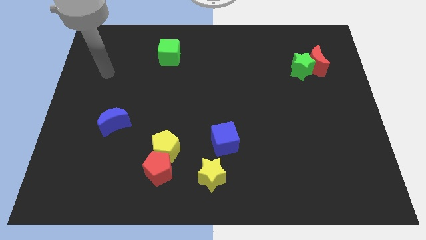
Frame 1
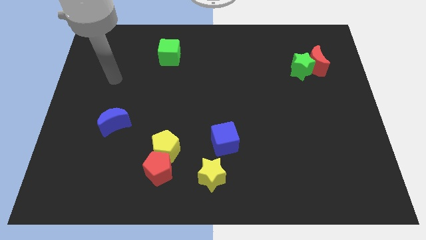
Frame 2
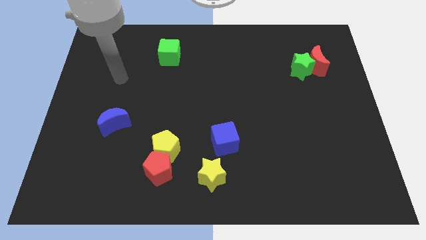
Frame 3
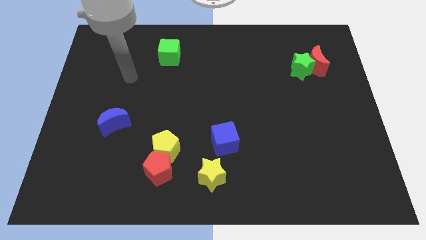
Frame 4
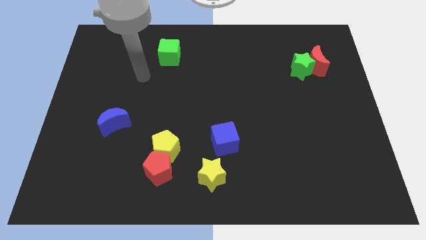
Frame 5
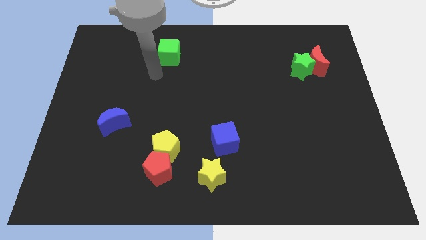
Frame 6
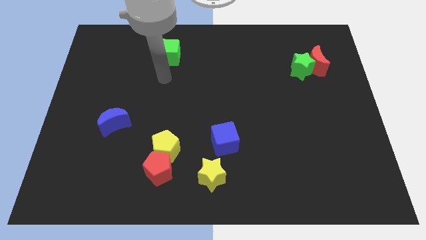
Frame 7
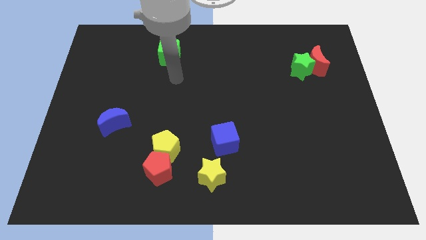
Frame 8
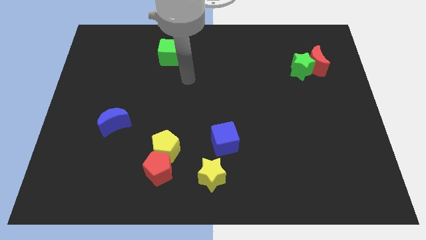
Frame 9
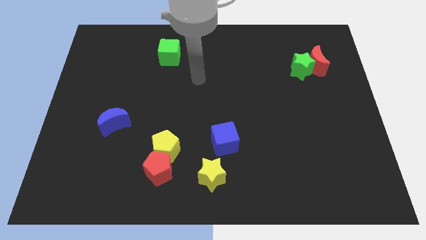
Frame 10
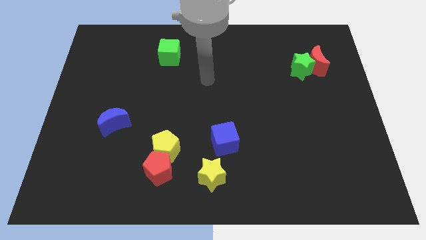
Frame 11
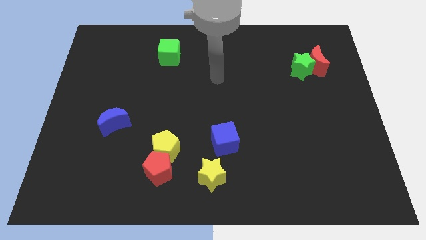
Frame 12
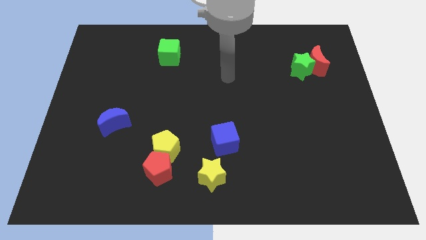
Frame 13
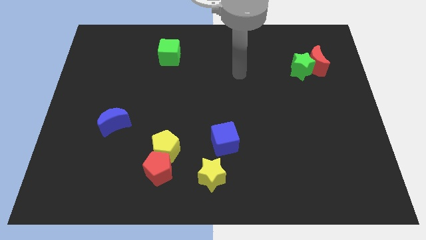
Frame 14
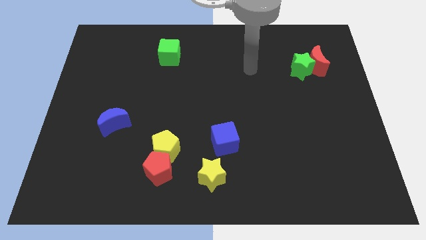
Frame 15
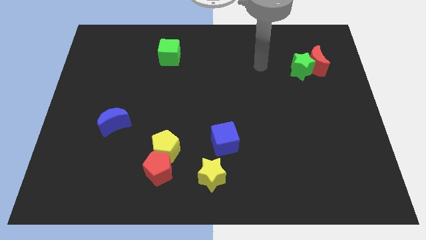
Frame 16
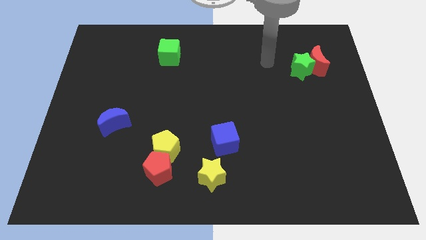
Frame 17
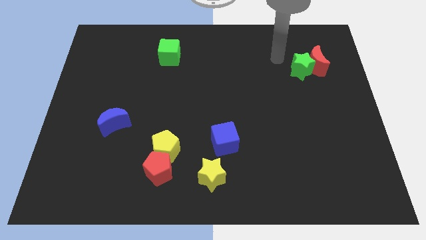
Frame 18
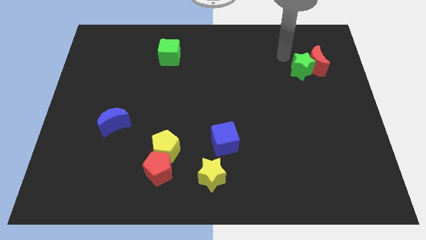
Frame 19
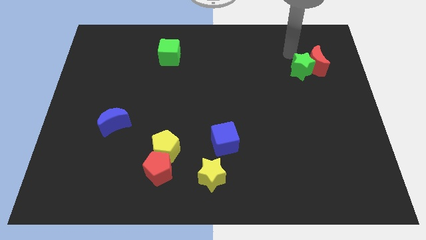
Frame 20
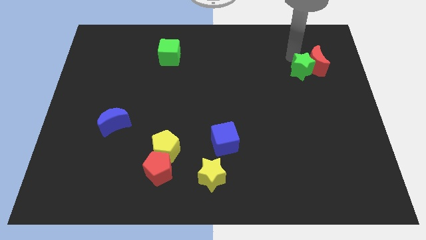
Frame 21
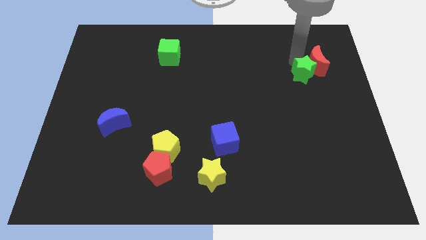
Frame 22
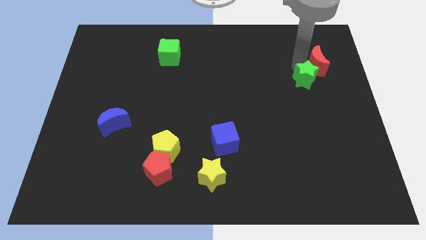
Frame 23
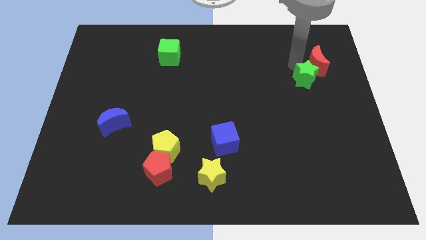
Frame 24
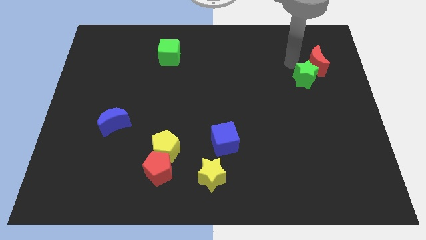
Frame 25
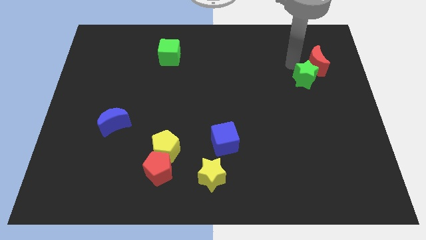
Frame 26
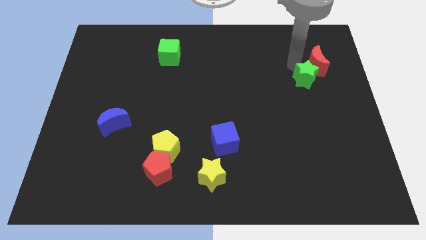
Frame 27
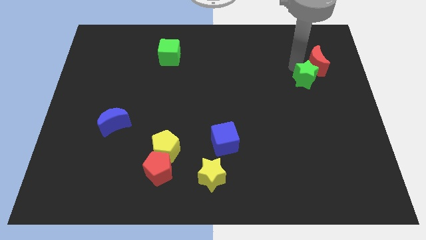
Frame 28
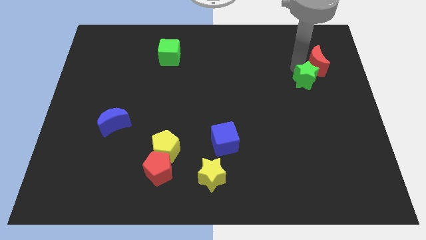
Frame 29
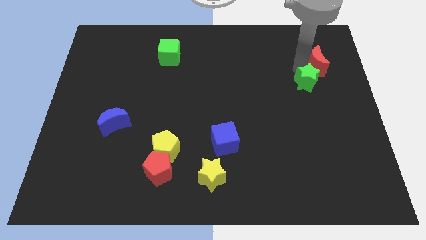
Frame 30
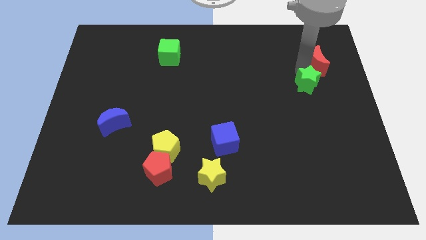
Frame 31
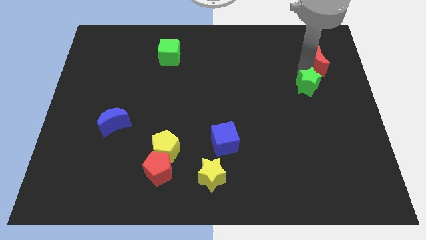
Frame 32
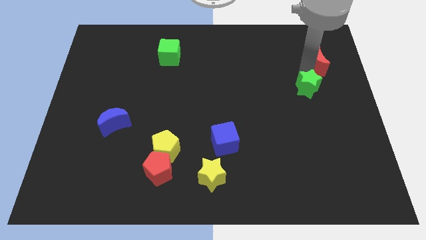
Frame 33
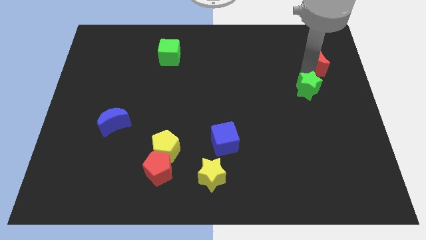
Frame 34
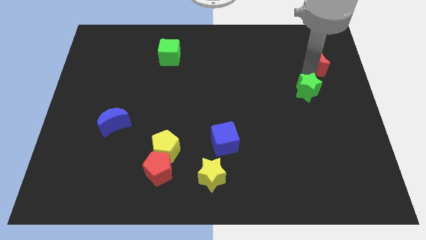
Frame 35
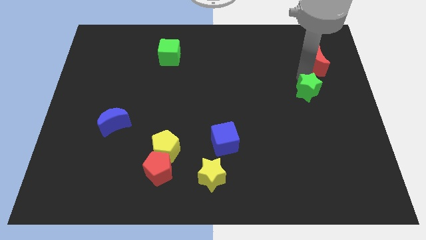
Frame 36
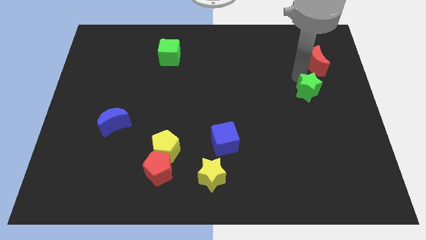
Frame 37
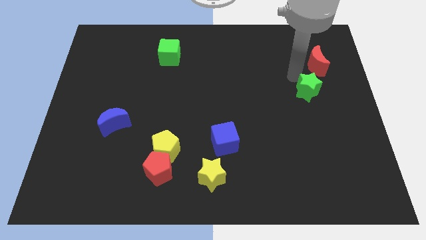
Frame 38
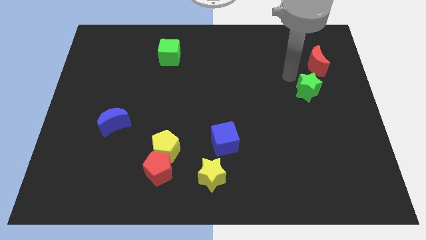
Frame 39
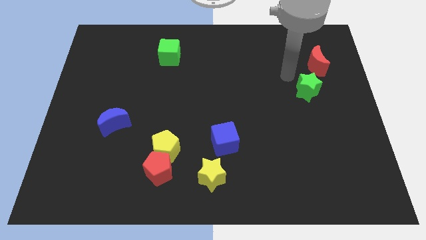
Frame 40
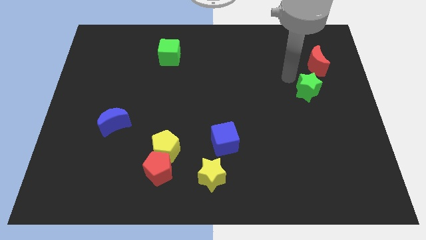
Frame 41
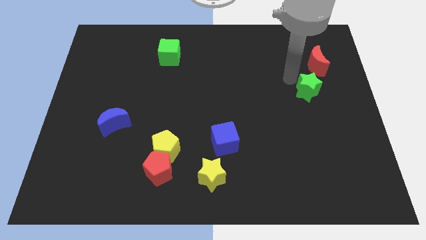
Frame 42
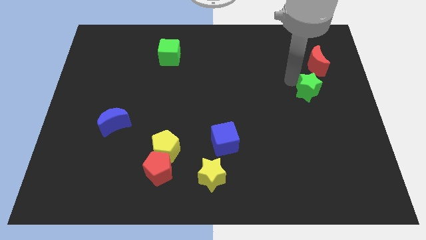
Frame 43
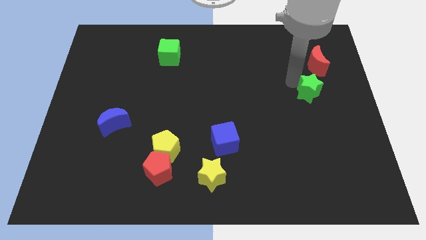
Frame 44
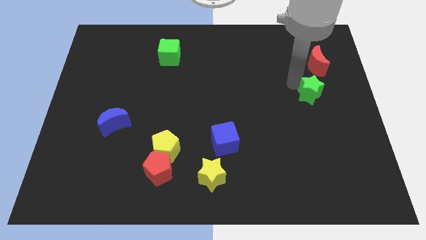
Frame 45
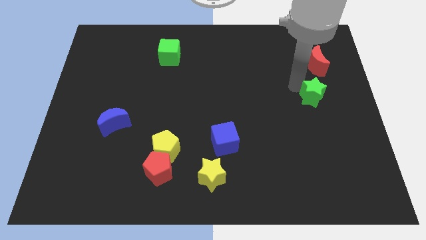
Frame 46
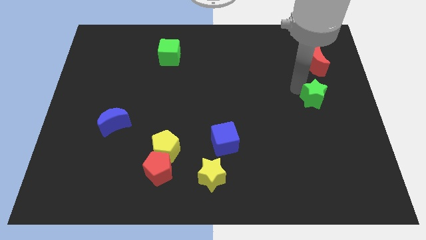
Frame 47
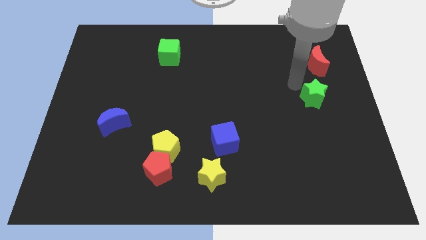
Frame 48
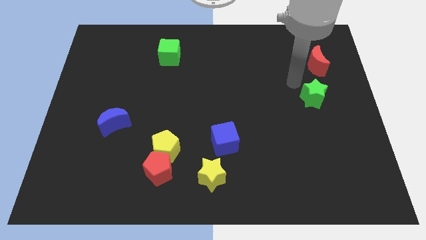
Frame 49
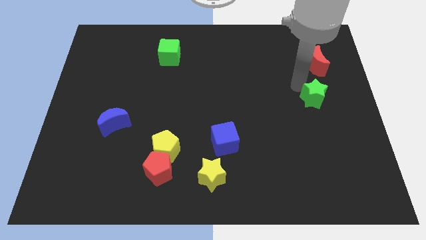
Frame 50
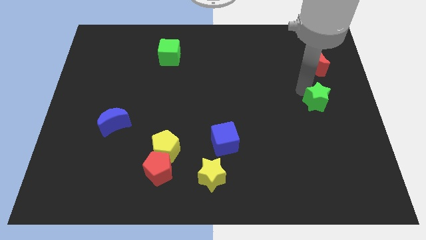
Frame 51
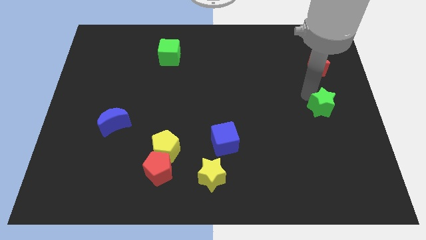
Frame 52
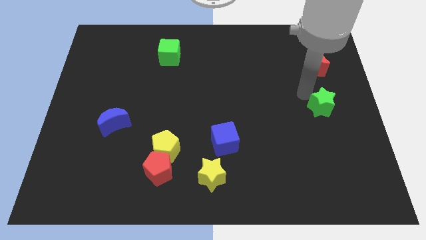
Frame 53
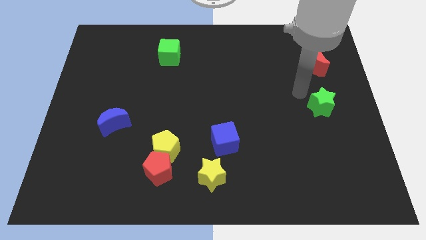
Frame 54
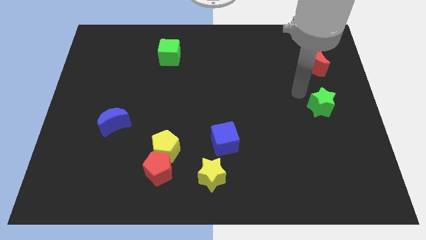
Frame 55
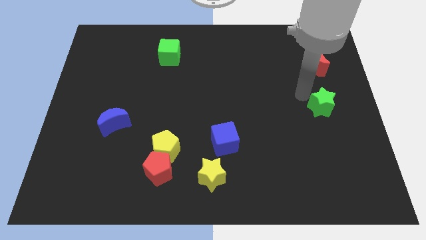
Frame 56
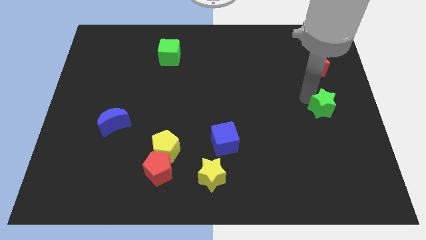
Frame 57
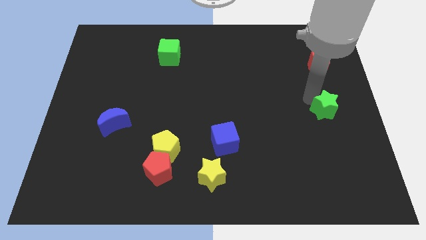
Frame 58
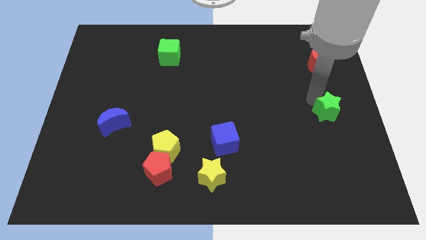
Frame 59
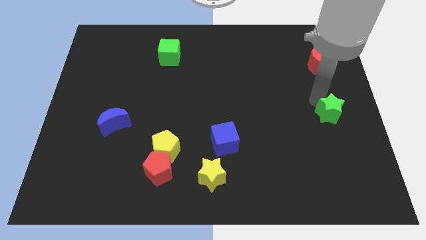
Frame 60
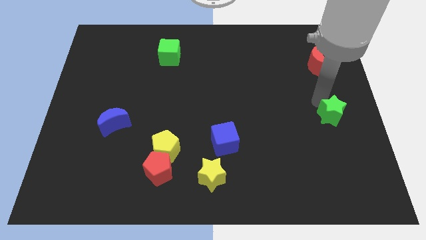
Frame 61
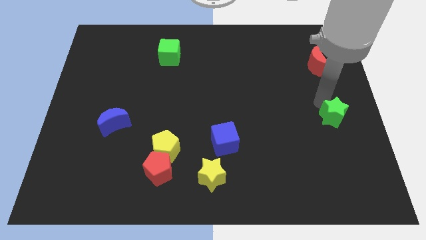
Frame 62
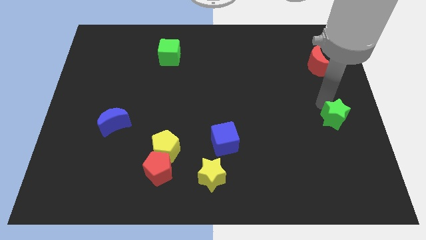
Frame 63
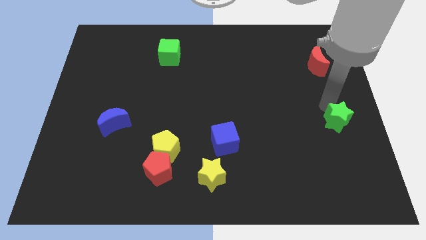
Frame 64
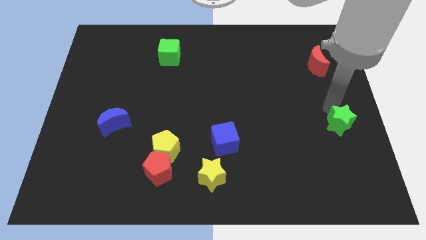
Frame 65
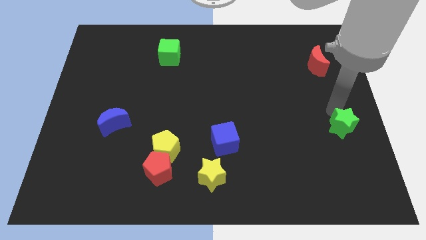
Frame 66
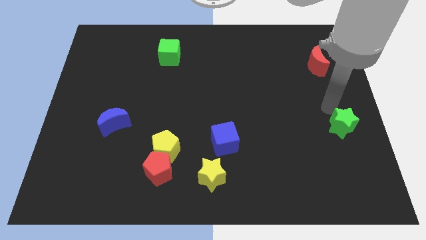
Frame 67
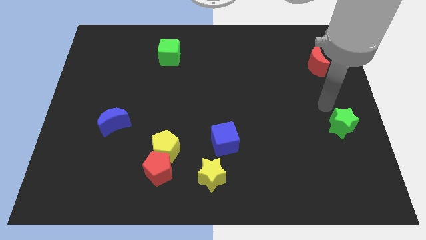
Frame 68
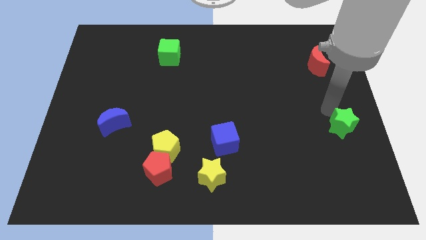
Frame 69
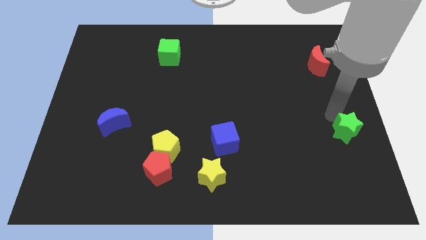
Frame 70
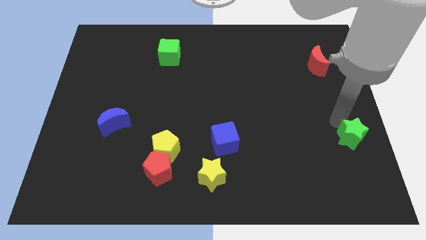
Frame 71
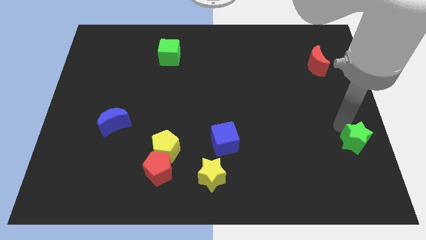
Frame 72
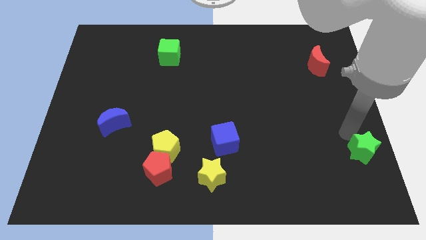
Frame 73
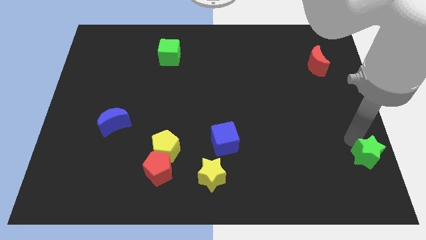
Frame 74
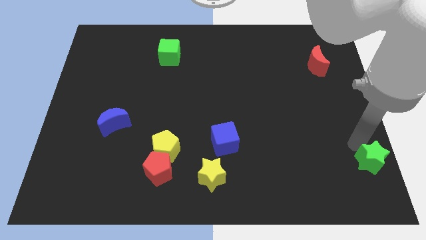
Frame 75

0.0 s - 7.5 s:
push the green star to the bottom right
